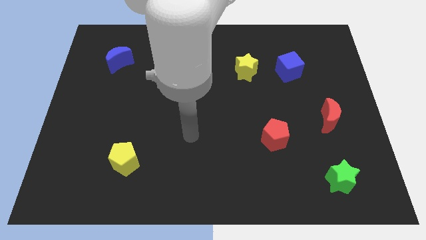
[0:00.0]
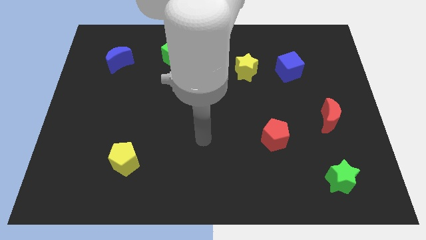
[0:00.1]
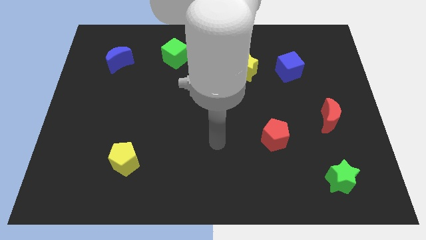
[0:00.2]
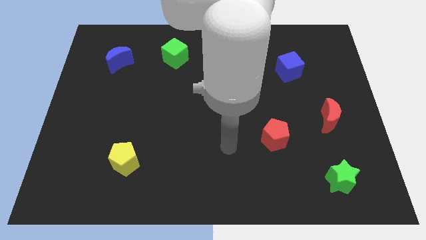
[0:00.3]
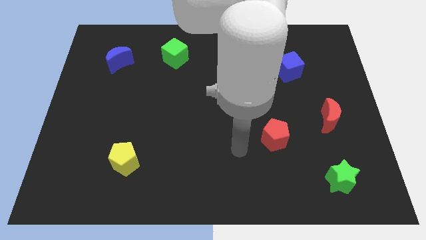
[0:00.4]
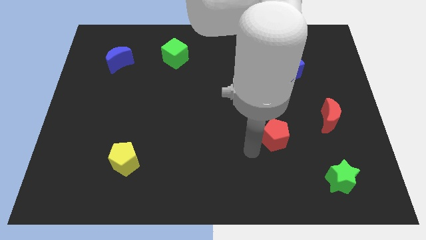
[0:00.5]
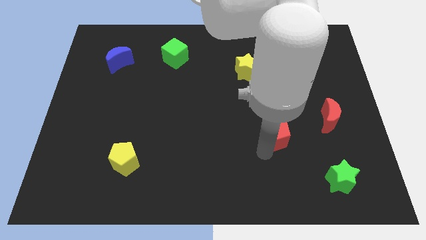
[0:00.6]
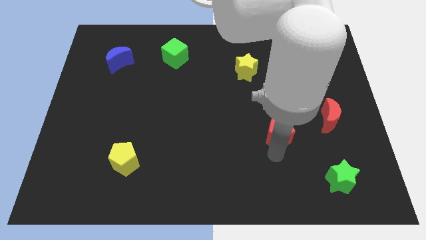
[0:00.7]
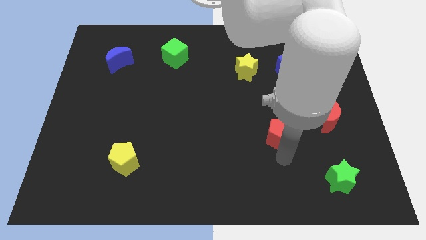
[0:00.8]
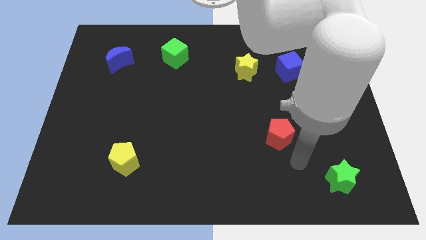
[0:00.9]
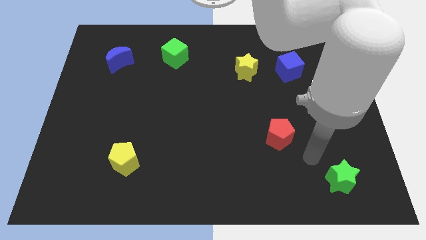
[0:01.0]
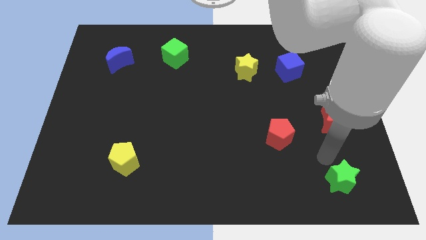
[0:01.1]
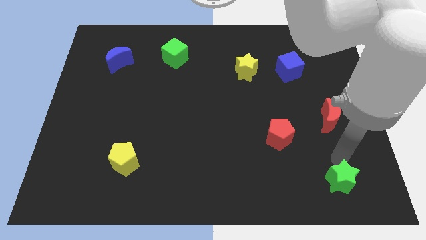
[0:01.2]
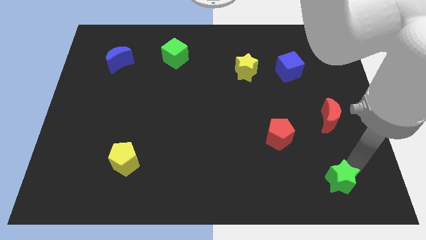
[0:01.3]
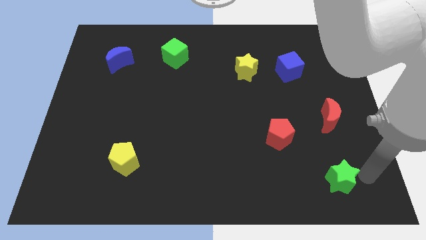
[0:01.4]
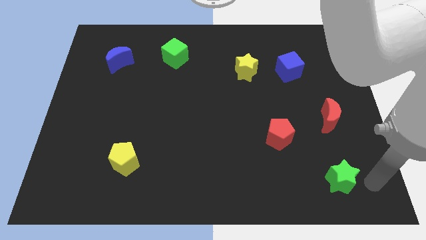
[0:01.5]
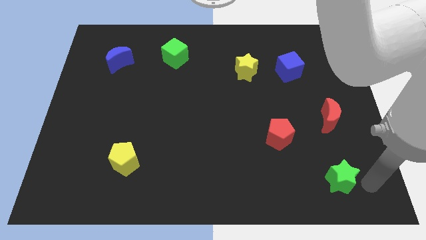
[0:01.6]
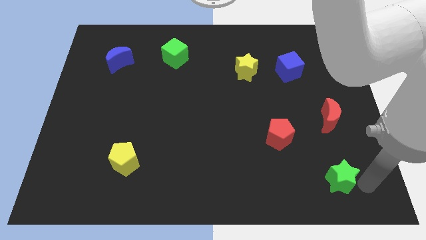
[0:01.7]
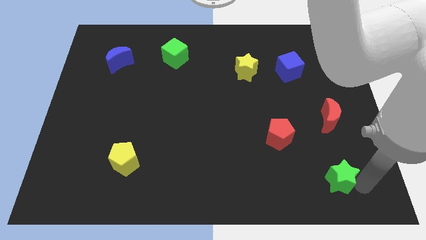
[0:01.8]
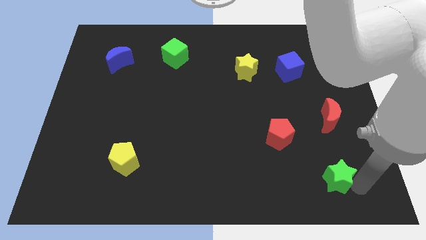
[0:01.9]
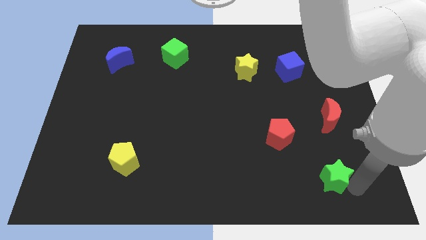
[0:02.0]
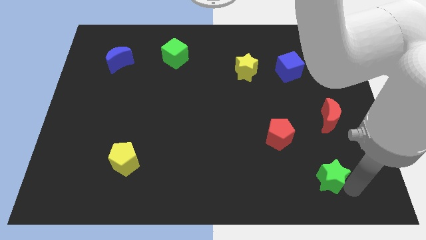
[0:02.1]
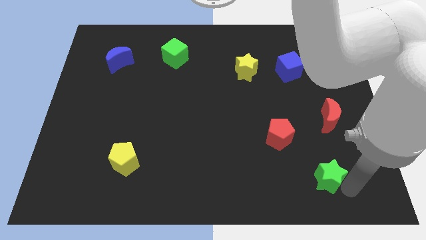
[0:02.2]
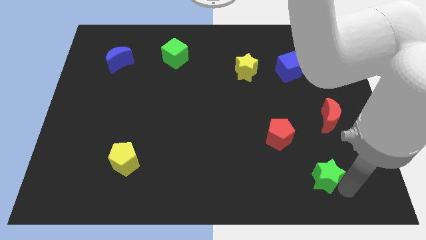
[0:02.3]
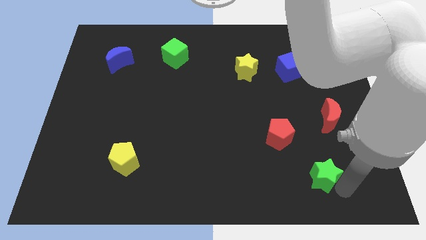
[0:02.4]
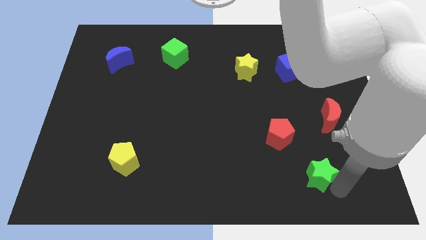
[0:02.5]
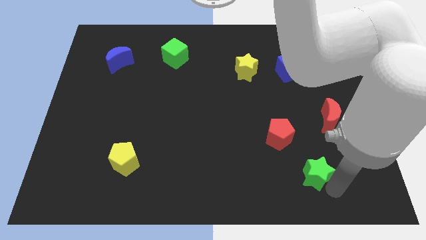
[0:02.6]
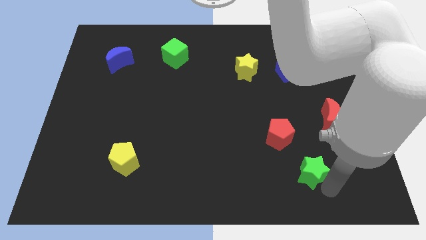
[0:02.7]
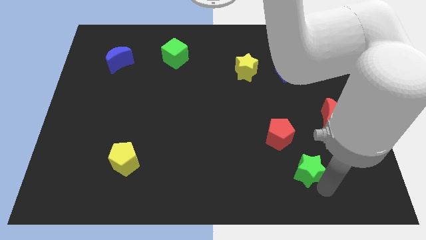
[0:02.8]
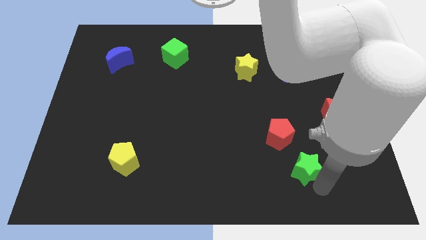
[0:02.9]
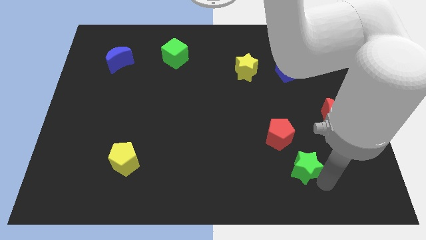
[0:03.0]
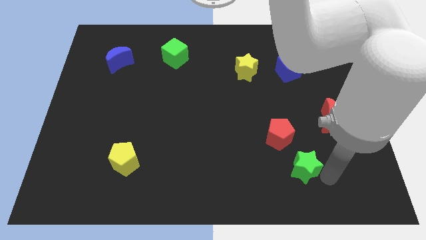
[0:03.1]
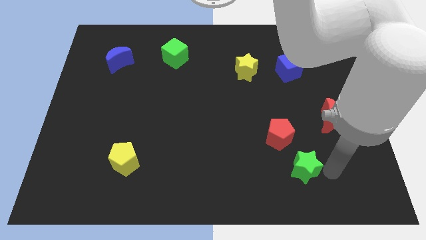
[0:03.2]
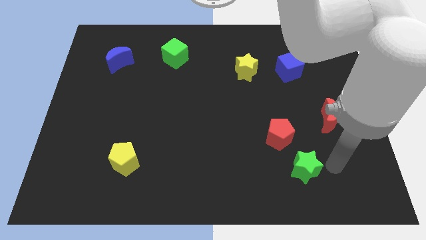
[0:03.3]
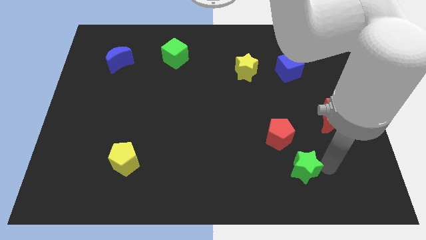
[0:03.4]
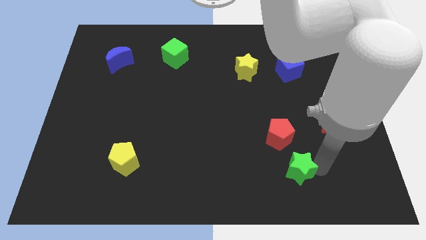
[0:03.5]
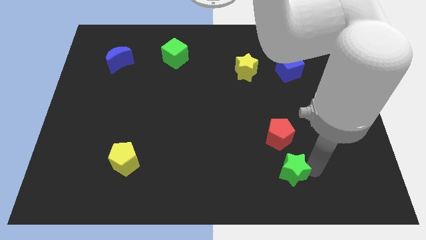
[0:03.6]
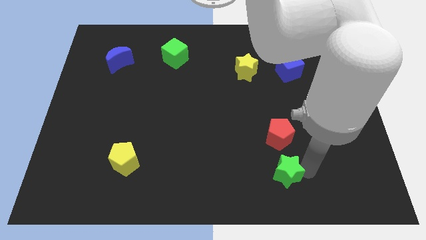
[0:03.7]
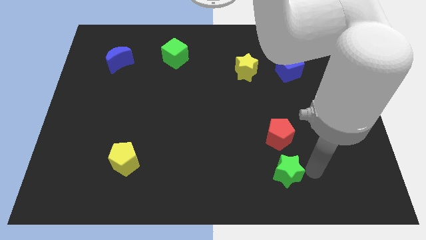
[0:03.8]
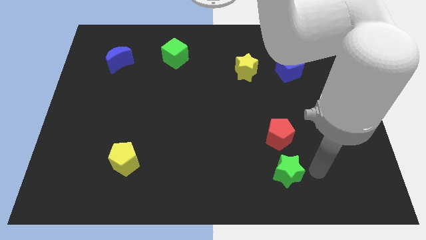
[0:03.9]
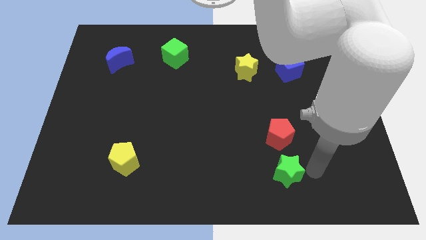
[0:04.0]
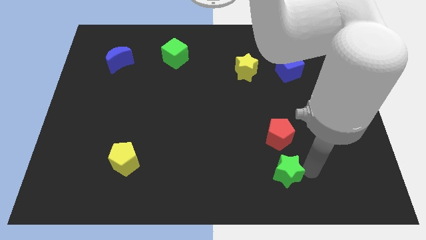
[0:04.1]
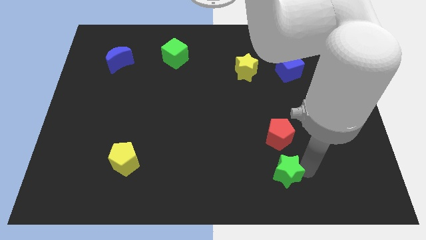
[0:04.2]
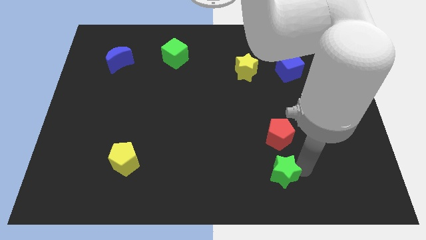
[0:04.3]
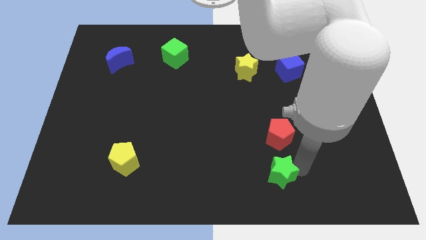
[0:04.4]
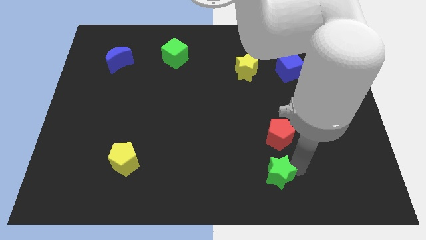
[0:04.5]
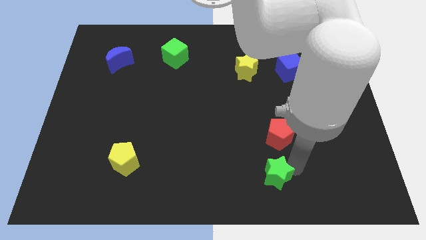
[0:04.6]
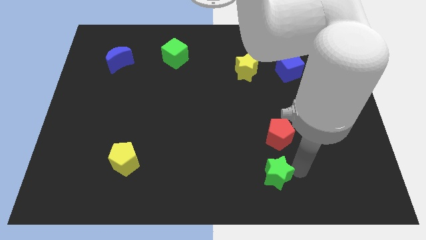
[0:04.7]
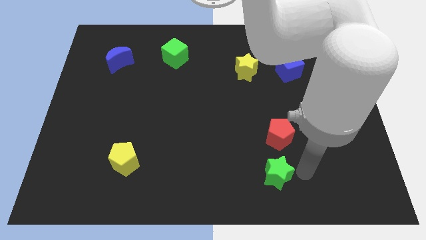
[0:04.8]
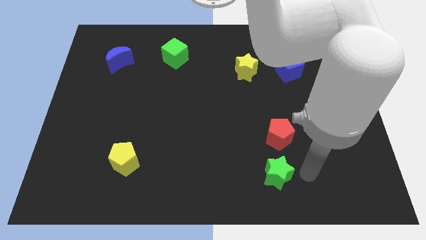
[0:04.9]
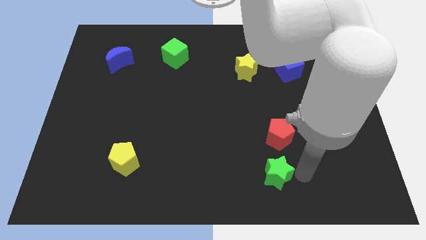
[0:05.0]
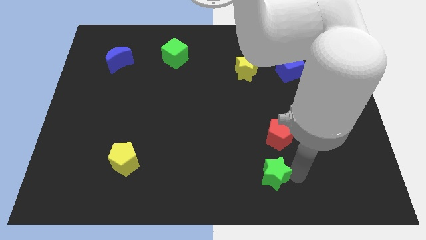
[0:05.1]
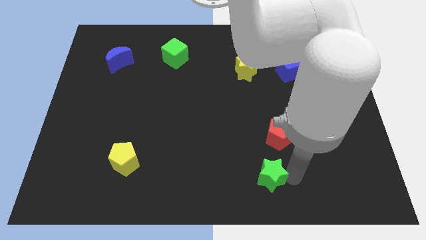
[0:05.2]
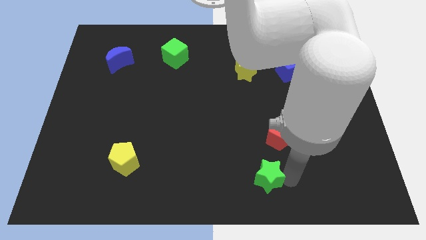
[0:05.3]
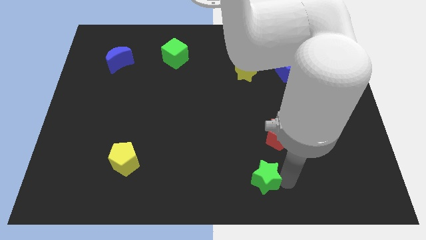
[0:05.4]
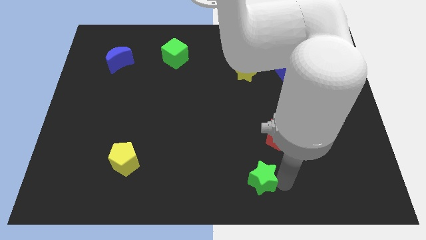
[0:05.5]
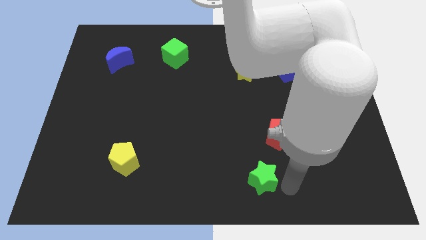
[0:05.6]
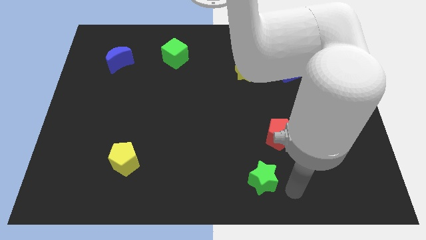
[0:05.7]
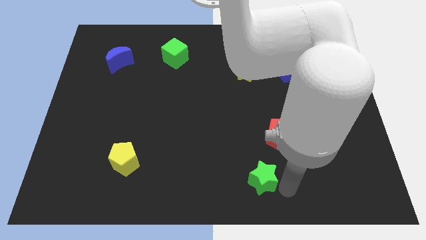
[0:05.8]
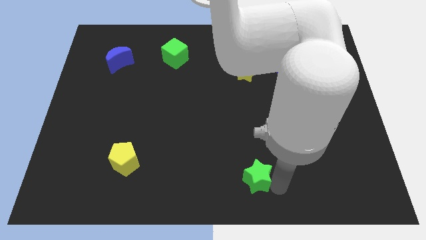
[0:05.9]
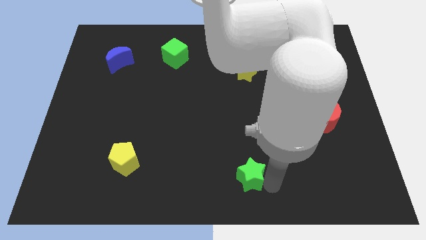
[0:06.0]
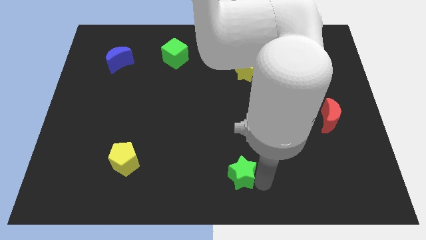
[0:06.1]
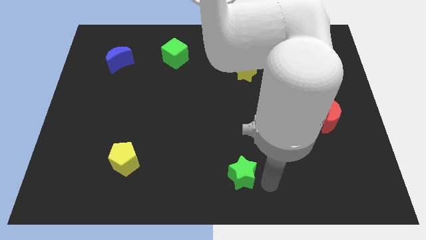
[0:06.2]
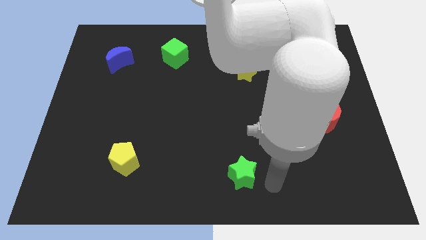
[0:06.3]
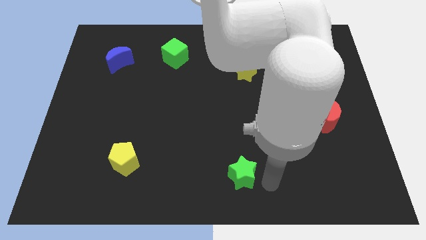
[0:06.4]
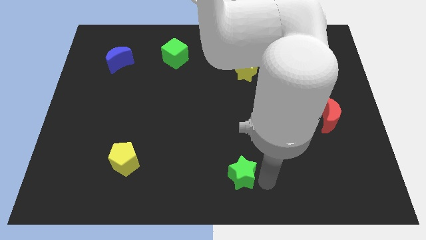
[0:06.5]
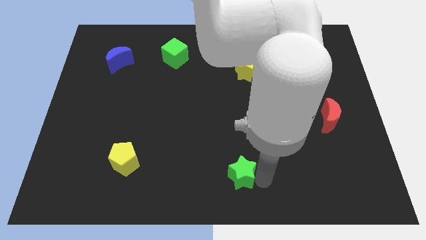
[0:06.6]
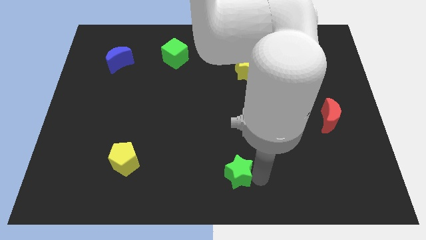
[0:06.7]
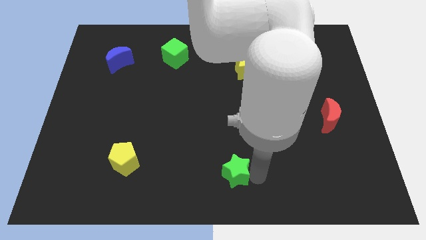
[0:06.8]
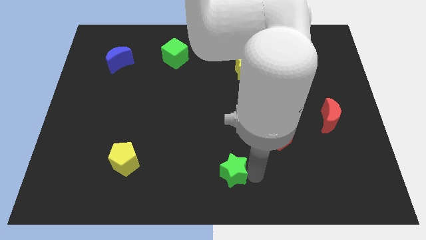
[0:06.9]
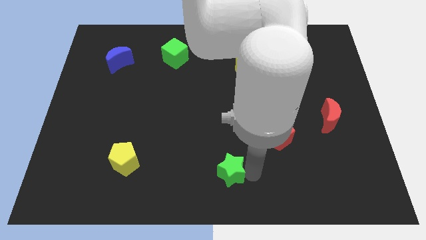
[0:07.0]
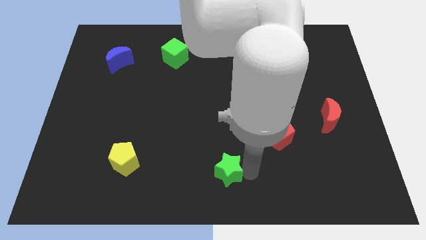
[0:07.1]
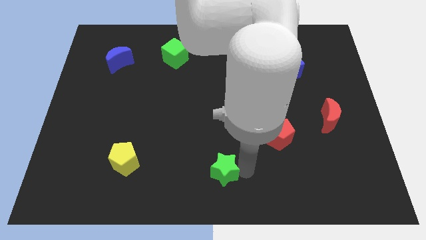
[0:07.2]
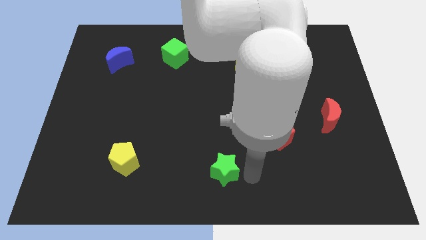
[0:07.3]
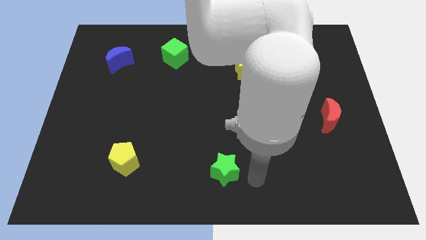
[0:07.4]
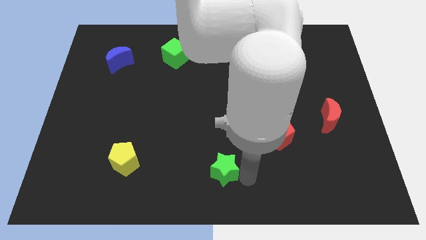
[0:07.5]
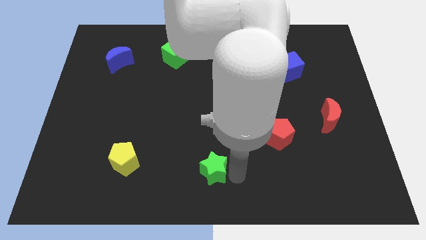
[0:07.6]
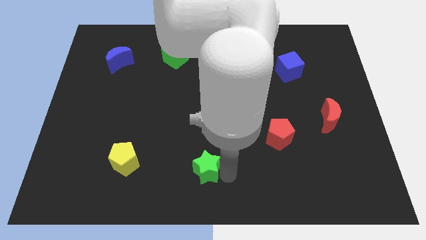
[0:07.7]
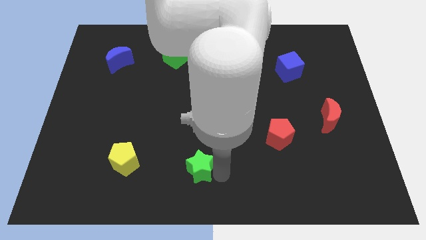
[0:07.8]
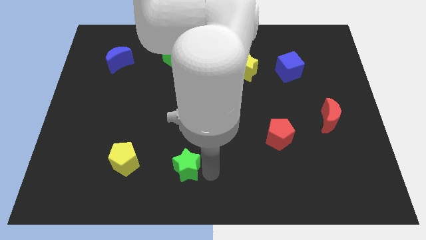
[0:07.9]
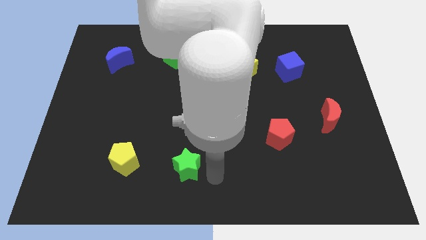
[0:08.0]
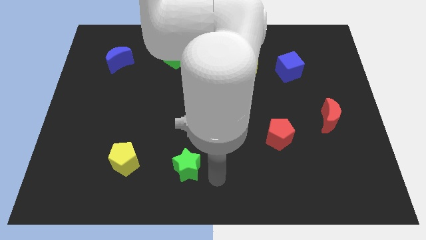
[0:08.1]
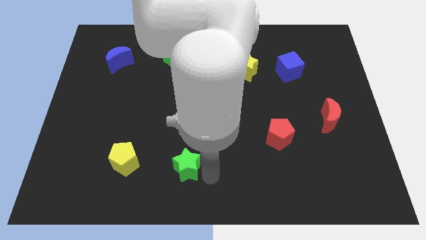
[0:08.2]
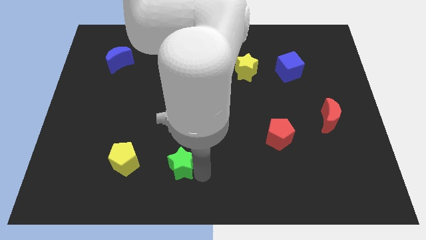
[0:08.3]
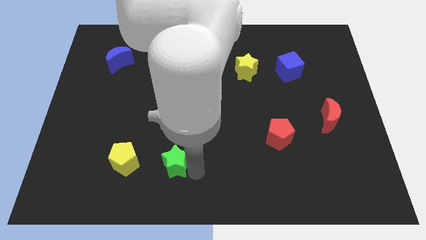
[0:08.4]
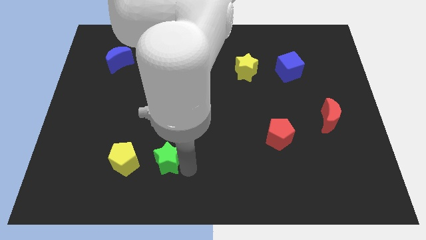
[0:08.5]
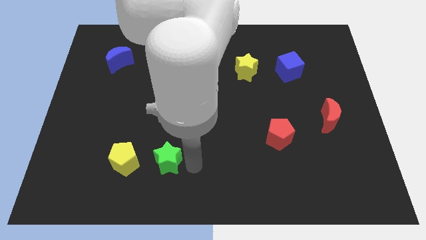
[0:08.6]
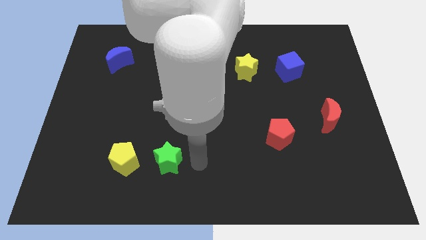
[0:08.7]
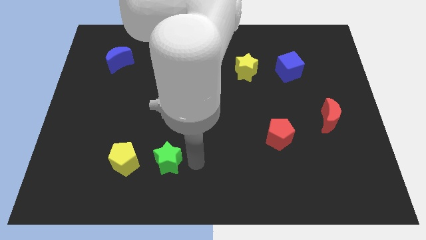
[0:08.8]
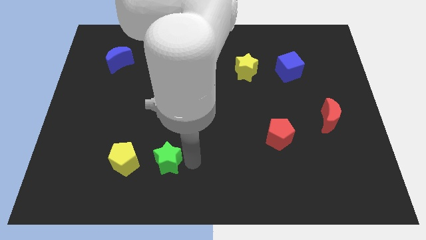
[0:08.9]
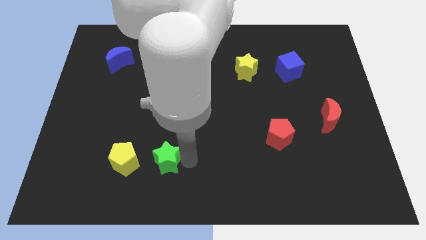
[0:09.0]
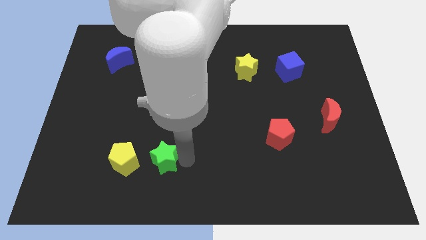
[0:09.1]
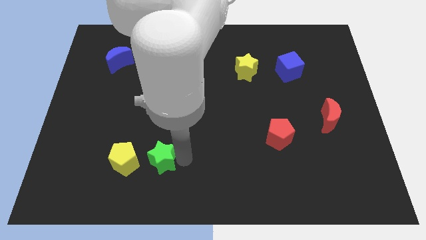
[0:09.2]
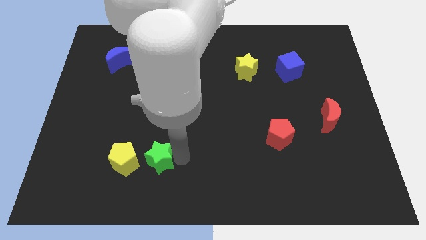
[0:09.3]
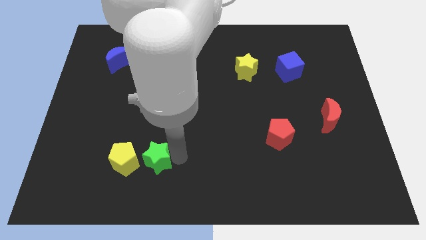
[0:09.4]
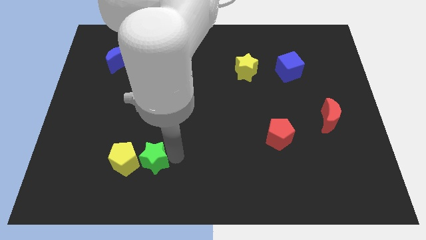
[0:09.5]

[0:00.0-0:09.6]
move the green star close to the yellow pentagon
